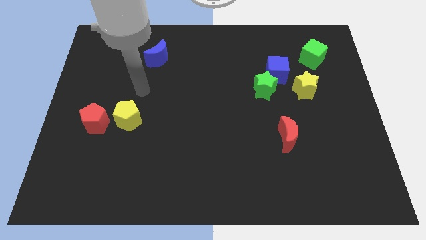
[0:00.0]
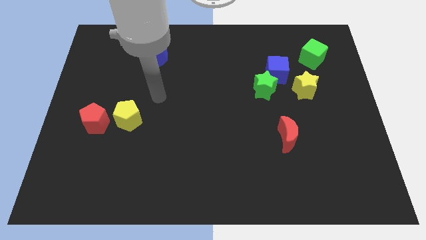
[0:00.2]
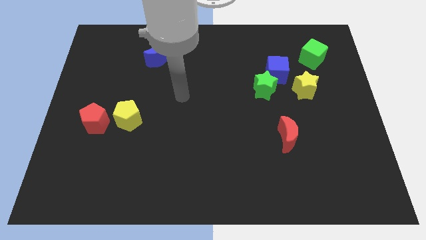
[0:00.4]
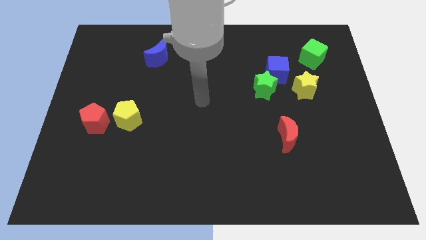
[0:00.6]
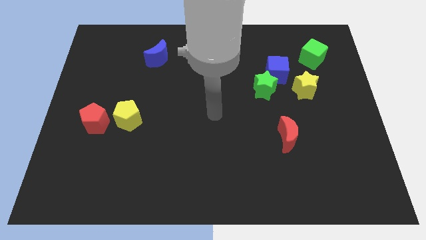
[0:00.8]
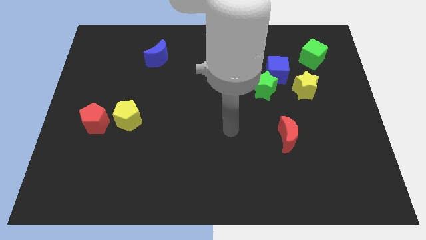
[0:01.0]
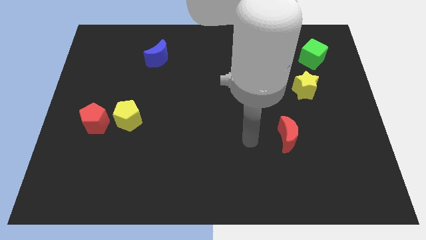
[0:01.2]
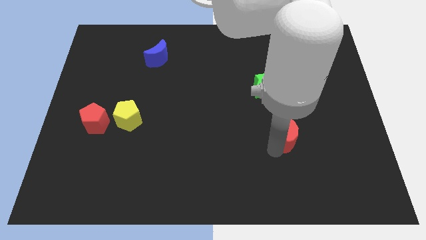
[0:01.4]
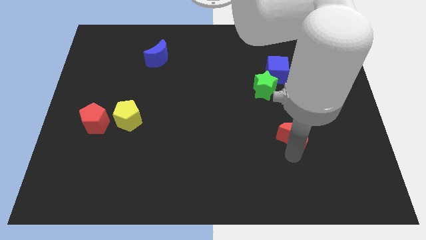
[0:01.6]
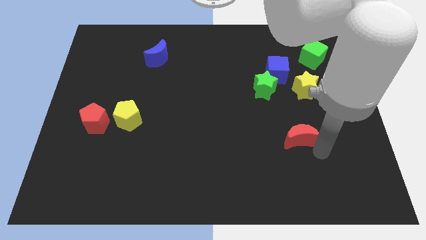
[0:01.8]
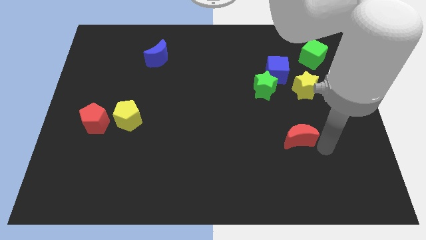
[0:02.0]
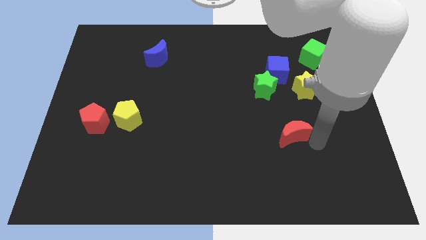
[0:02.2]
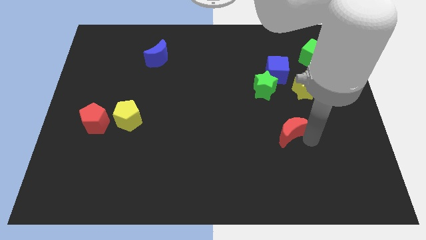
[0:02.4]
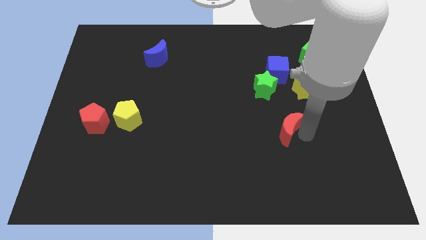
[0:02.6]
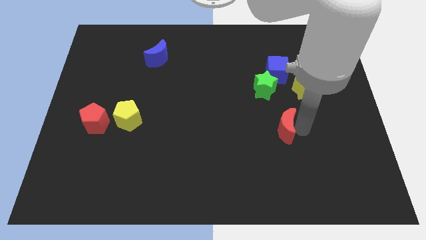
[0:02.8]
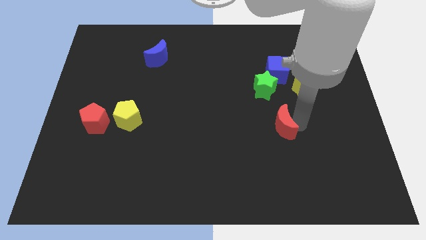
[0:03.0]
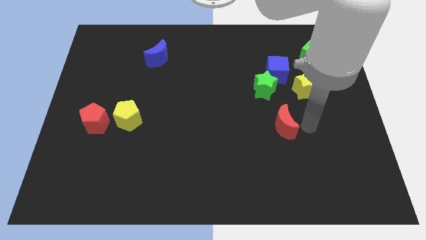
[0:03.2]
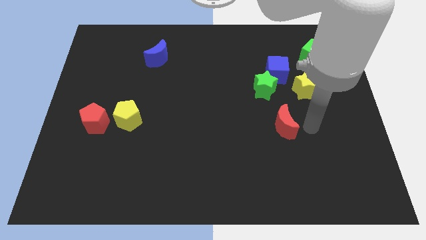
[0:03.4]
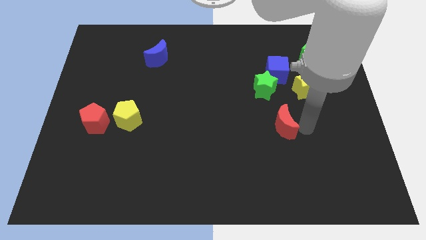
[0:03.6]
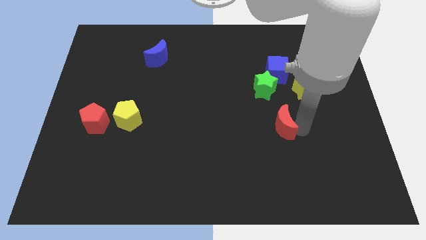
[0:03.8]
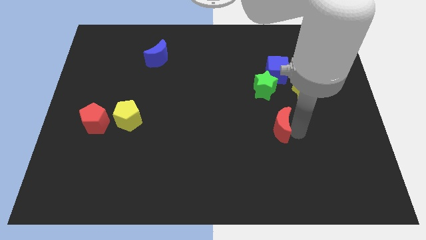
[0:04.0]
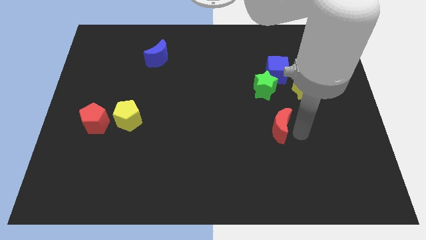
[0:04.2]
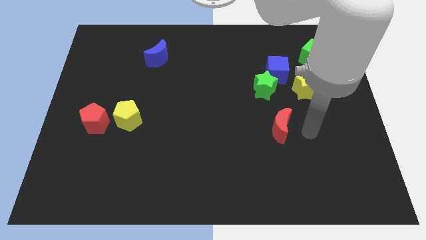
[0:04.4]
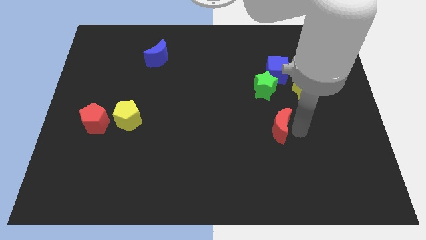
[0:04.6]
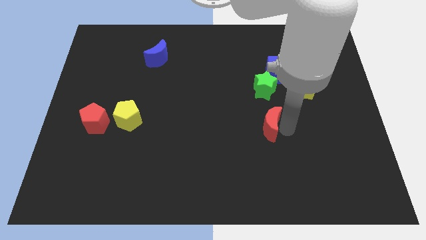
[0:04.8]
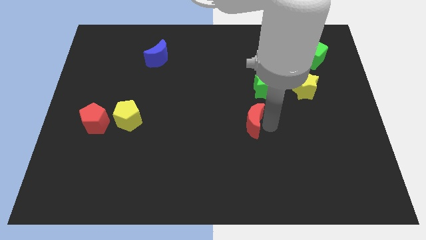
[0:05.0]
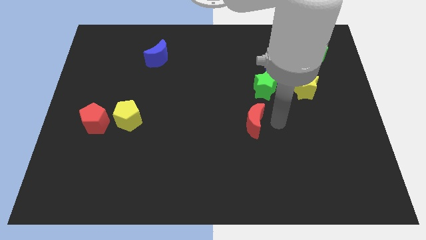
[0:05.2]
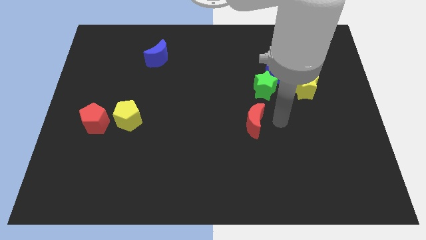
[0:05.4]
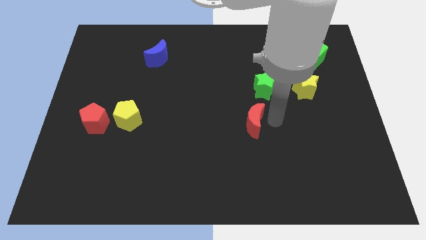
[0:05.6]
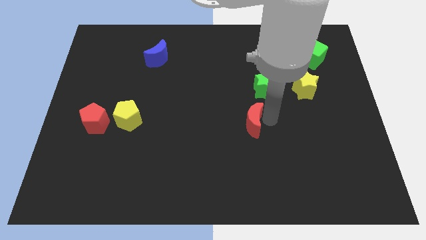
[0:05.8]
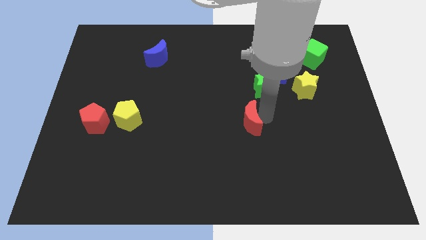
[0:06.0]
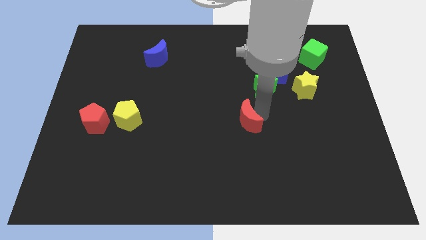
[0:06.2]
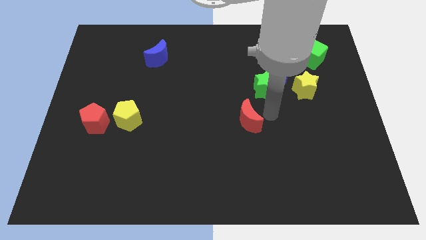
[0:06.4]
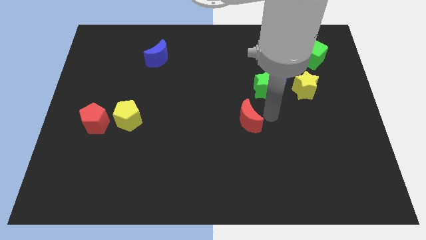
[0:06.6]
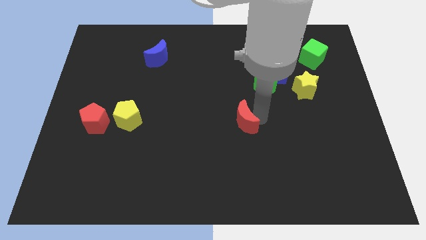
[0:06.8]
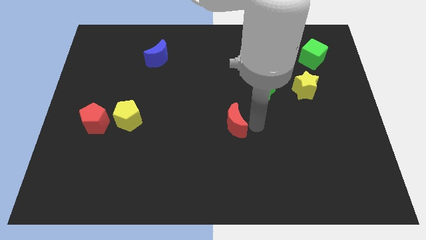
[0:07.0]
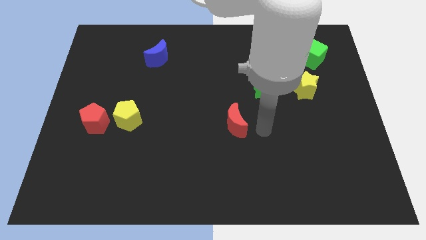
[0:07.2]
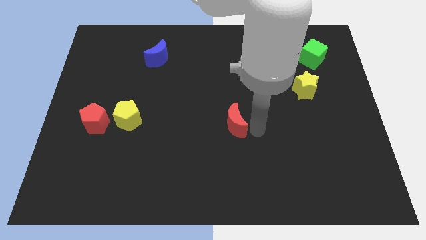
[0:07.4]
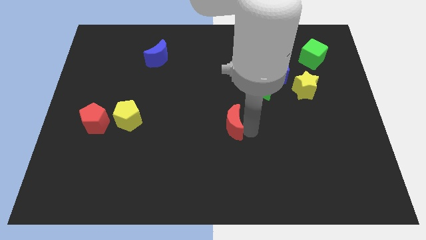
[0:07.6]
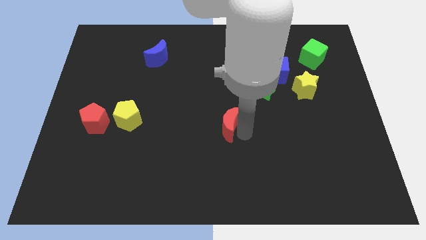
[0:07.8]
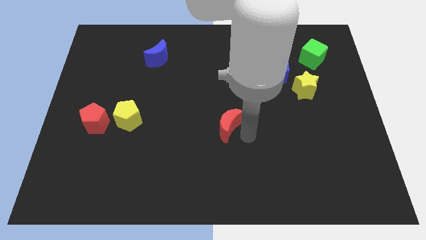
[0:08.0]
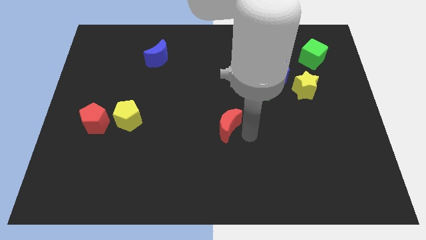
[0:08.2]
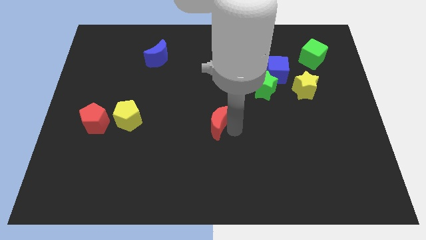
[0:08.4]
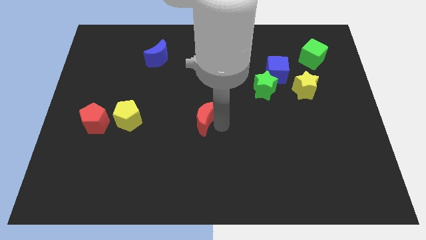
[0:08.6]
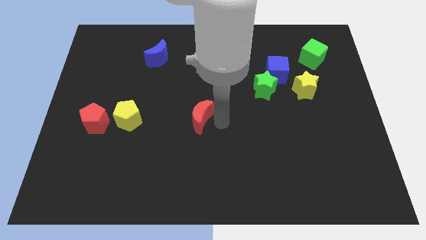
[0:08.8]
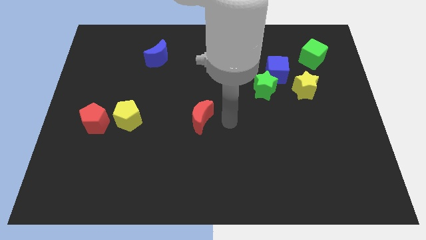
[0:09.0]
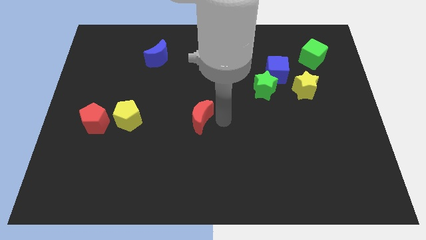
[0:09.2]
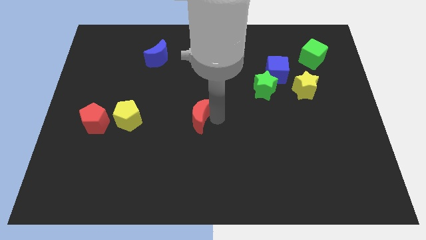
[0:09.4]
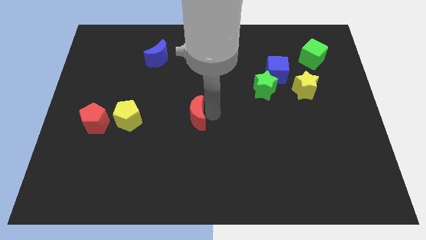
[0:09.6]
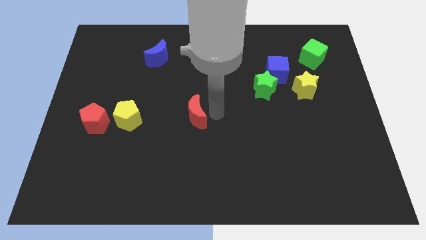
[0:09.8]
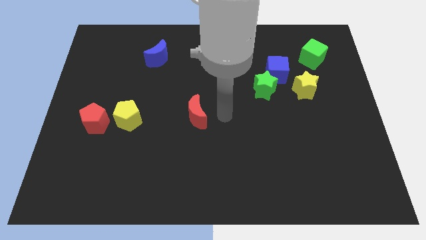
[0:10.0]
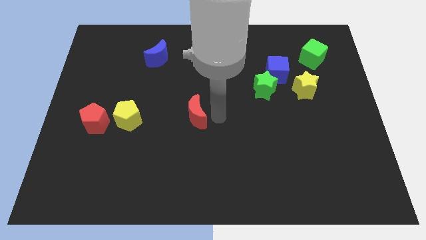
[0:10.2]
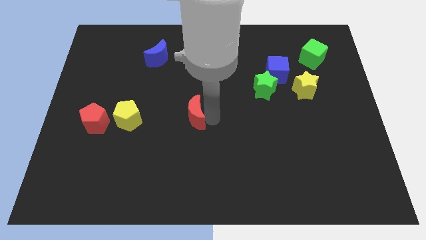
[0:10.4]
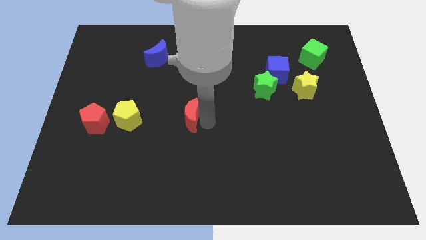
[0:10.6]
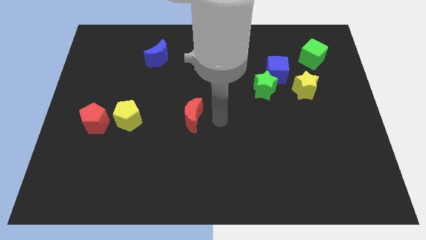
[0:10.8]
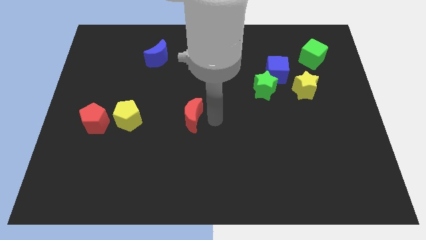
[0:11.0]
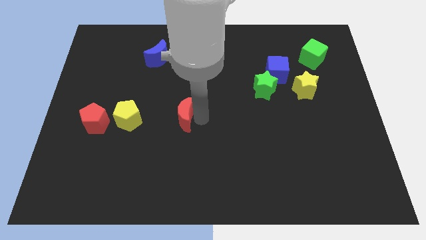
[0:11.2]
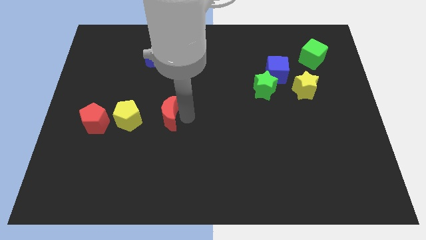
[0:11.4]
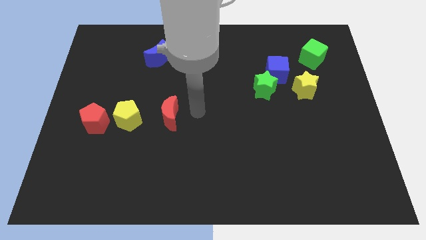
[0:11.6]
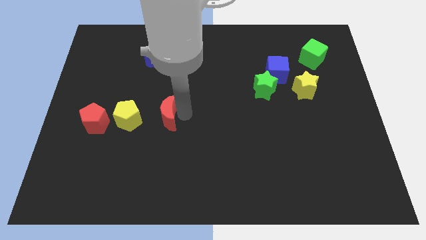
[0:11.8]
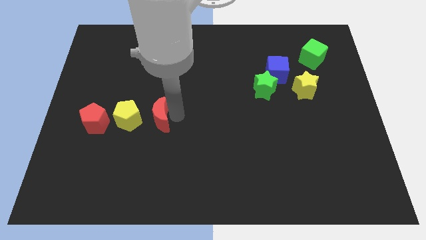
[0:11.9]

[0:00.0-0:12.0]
push the red moon just right of the red pentagon

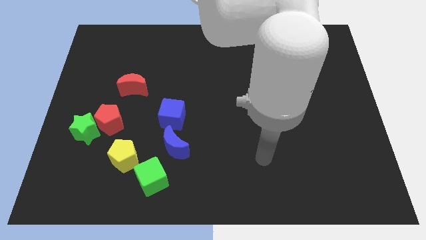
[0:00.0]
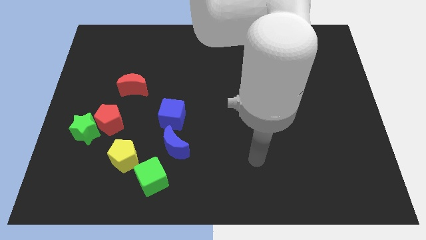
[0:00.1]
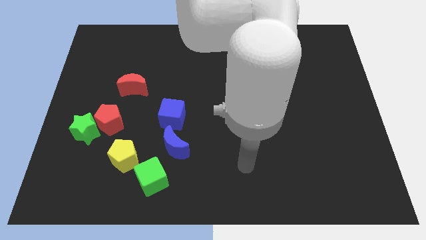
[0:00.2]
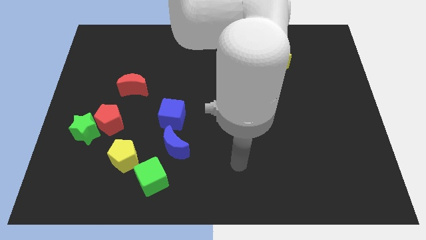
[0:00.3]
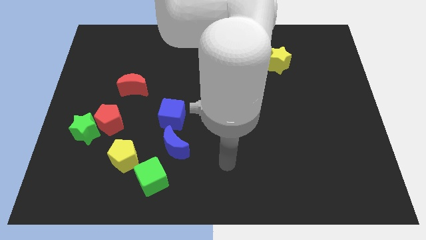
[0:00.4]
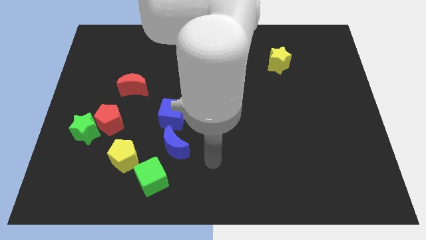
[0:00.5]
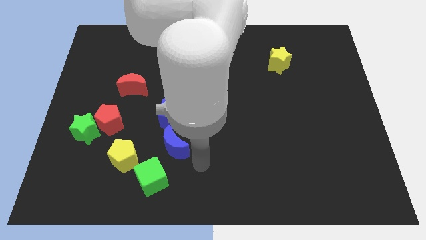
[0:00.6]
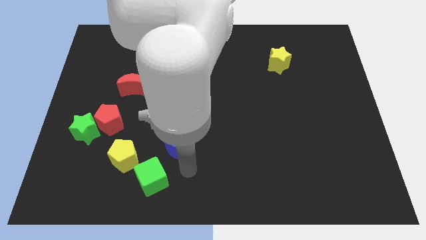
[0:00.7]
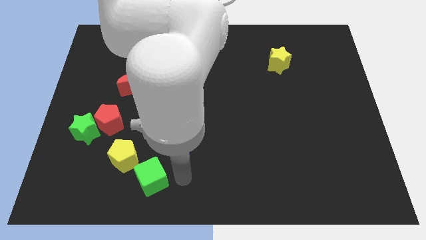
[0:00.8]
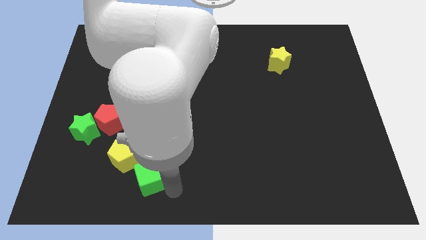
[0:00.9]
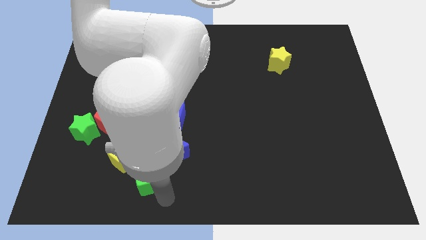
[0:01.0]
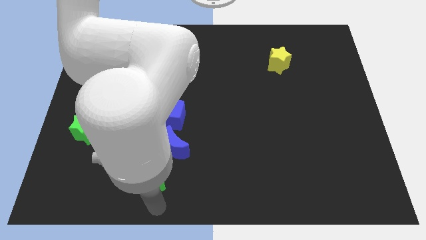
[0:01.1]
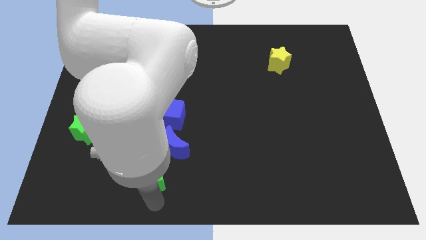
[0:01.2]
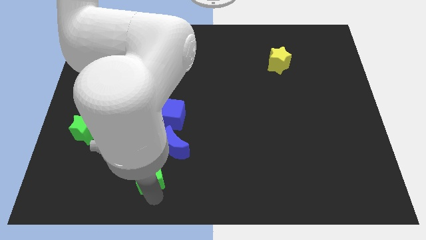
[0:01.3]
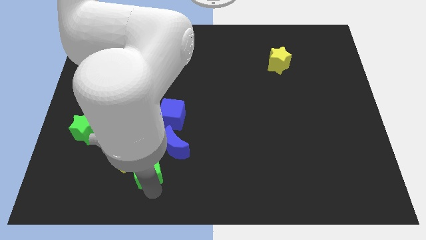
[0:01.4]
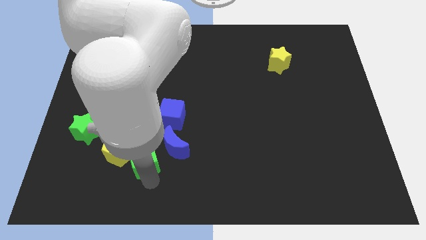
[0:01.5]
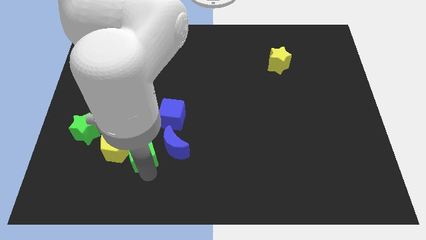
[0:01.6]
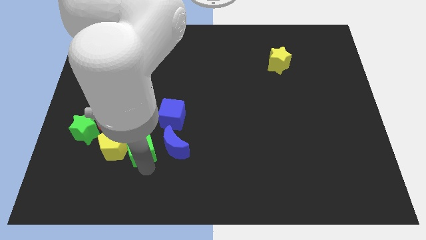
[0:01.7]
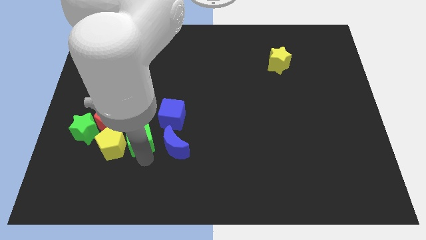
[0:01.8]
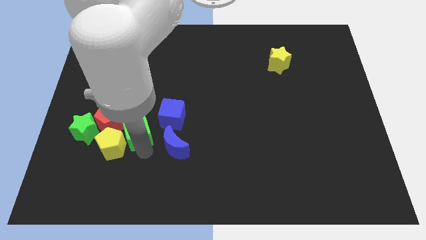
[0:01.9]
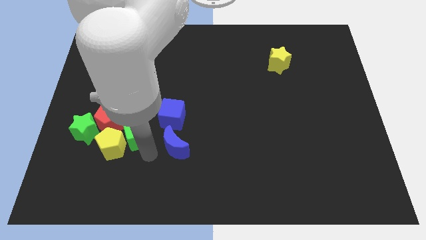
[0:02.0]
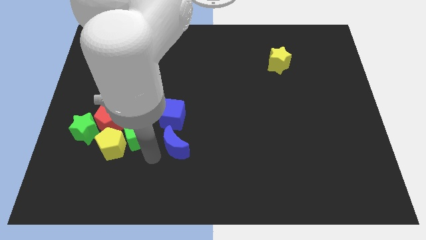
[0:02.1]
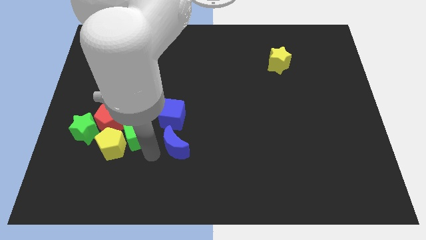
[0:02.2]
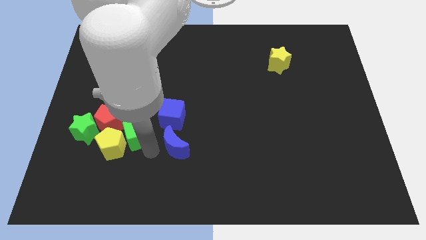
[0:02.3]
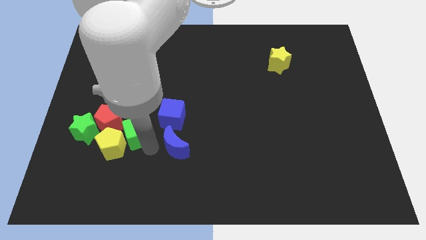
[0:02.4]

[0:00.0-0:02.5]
push the green cube just left of the blue cube

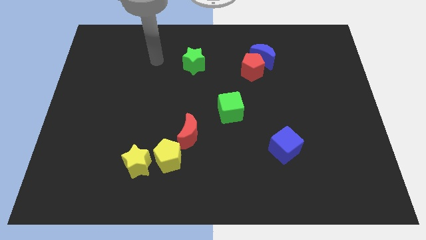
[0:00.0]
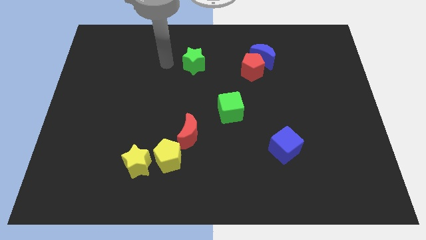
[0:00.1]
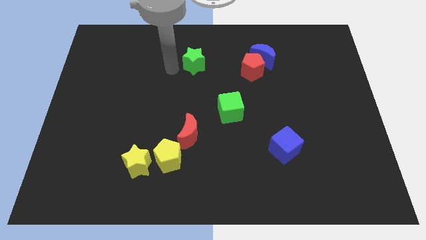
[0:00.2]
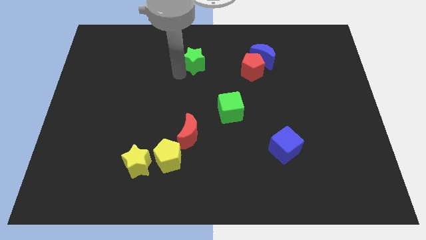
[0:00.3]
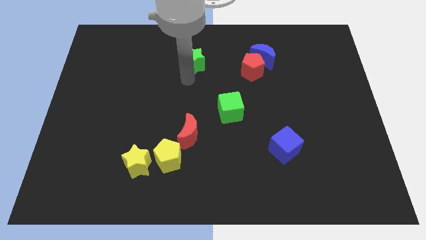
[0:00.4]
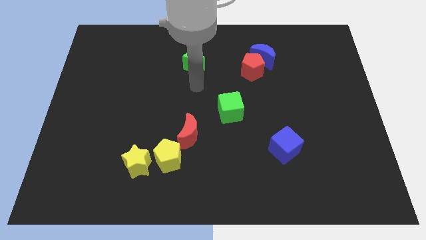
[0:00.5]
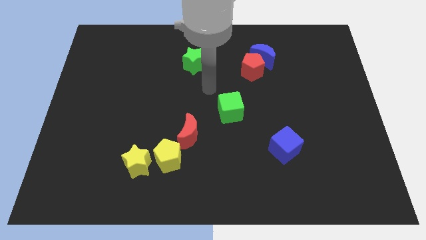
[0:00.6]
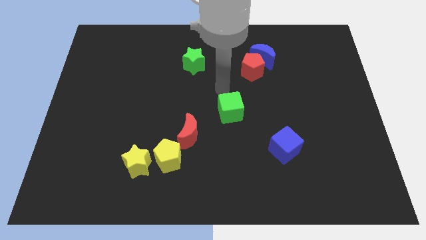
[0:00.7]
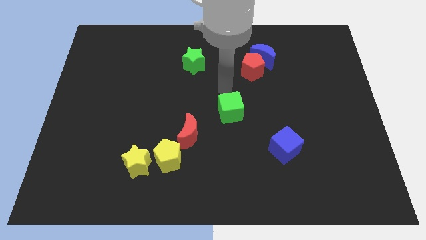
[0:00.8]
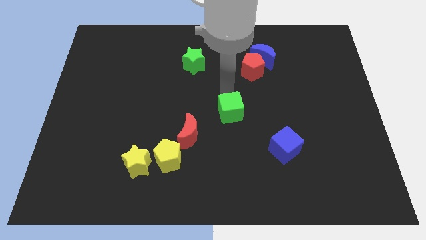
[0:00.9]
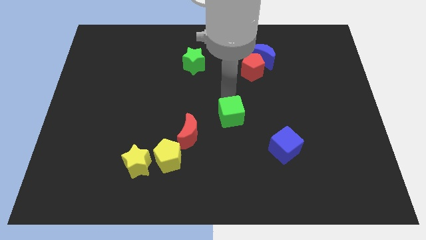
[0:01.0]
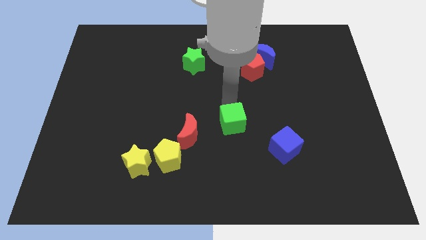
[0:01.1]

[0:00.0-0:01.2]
put the green cube to the right side of the red moon
